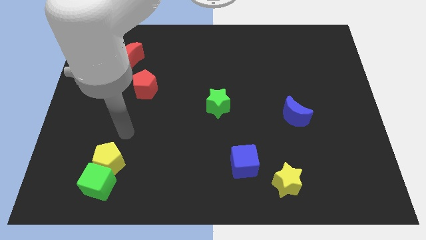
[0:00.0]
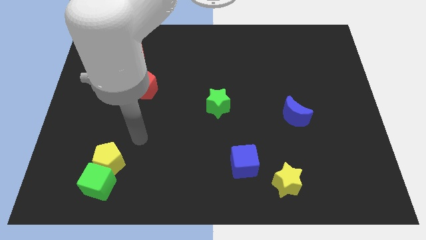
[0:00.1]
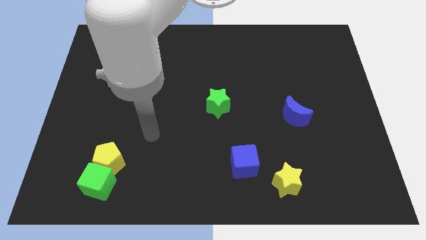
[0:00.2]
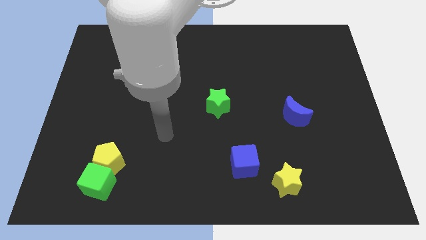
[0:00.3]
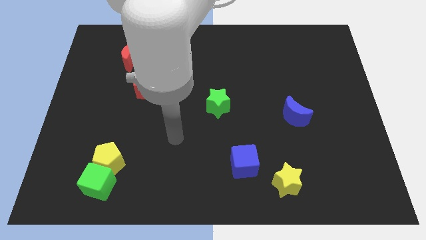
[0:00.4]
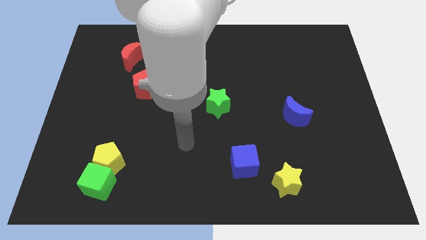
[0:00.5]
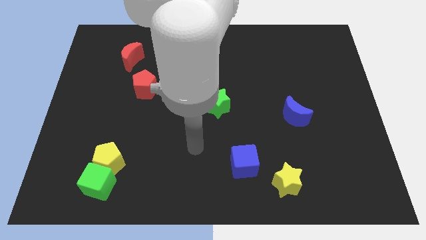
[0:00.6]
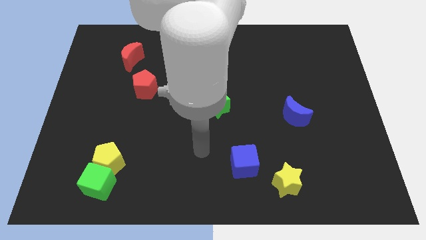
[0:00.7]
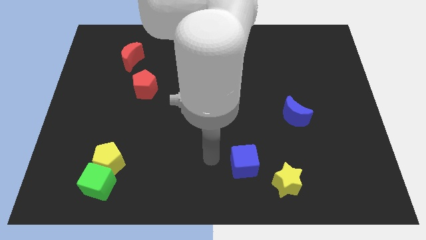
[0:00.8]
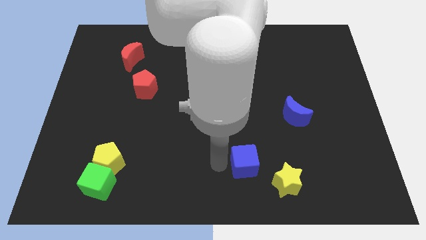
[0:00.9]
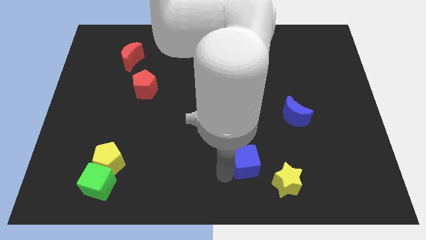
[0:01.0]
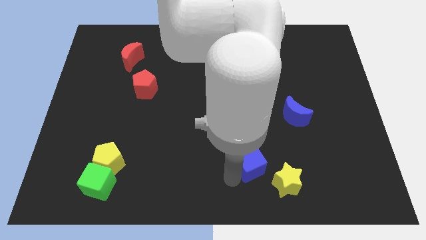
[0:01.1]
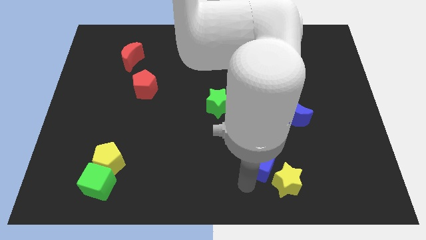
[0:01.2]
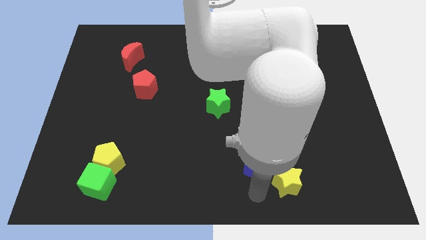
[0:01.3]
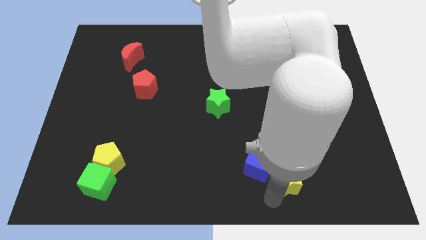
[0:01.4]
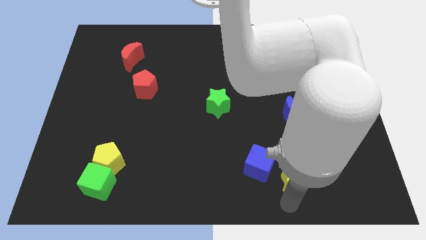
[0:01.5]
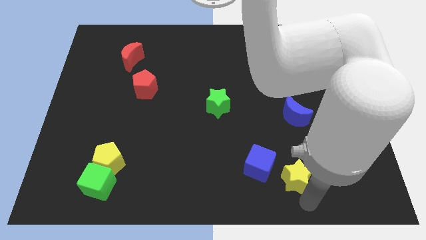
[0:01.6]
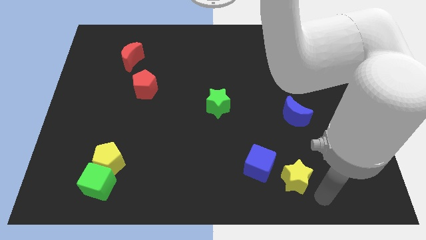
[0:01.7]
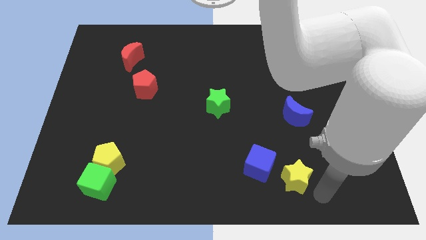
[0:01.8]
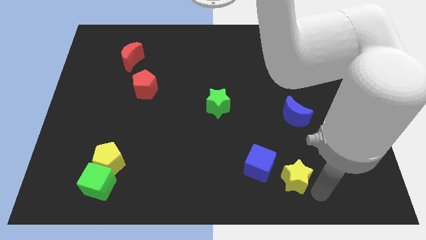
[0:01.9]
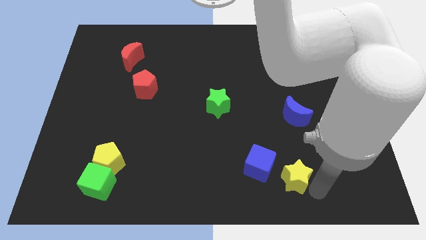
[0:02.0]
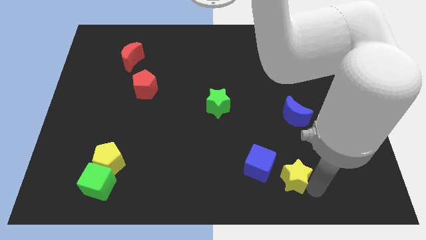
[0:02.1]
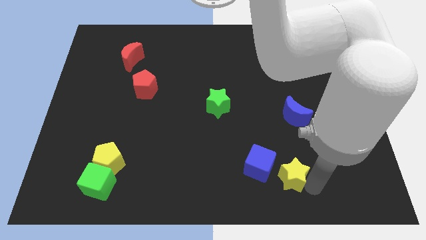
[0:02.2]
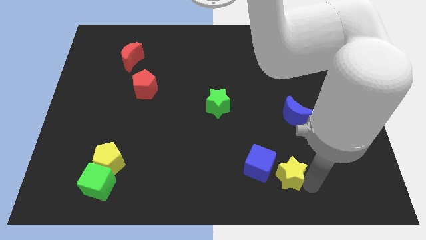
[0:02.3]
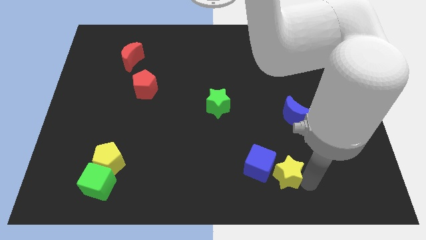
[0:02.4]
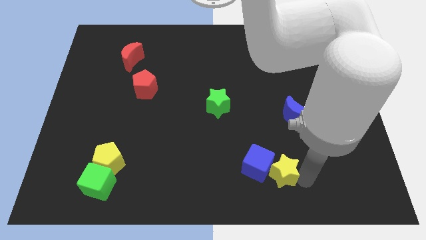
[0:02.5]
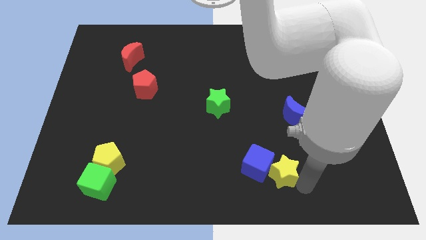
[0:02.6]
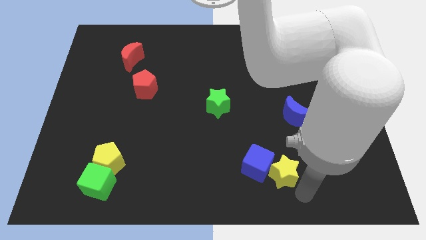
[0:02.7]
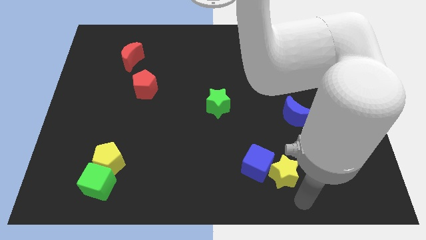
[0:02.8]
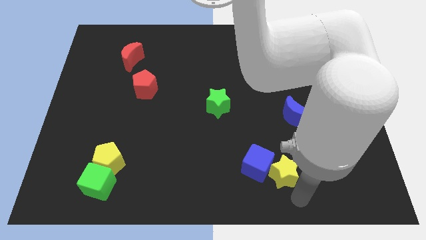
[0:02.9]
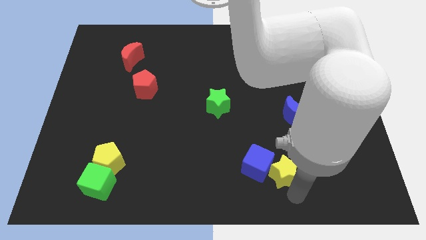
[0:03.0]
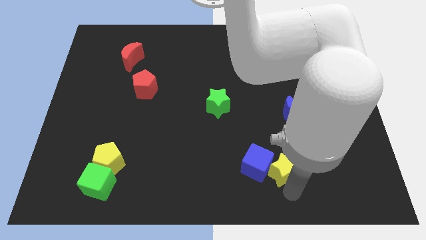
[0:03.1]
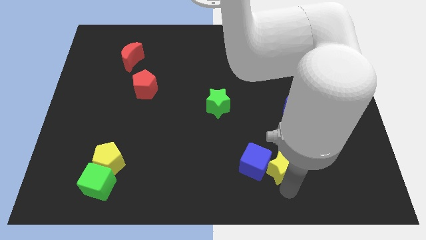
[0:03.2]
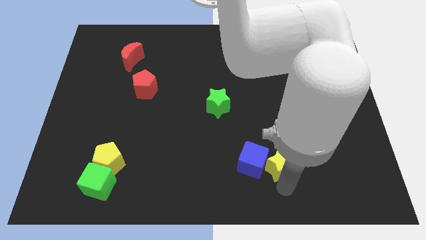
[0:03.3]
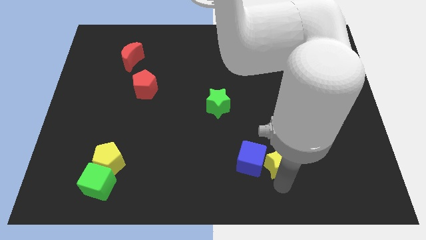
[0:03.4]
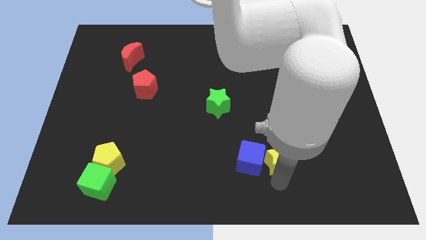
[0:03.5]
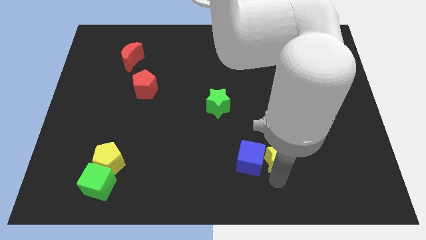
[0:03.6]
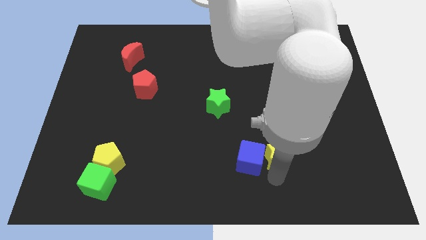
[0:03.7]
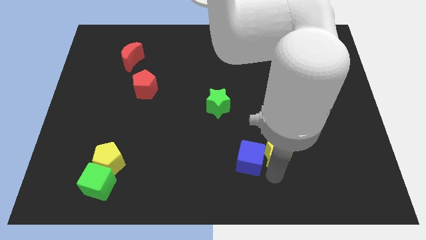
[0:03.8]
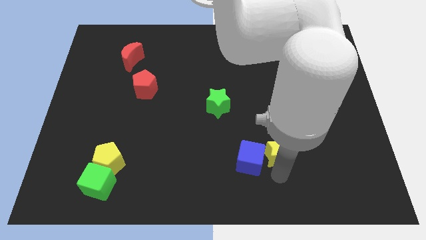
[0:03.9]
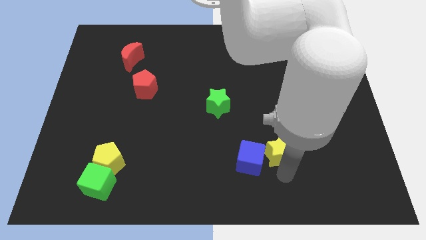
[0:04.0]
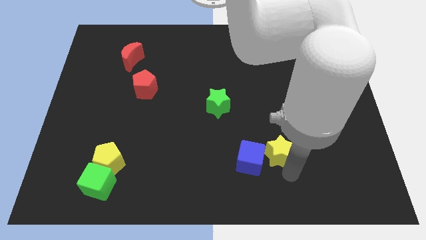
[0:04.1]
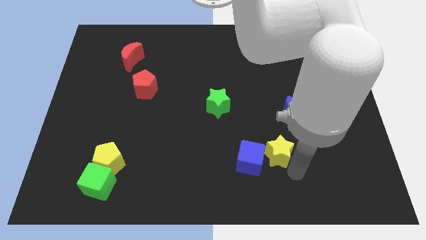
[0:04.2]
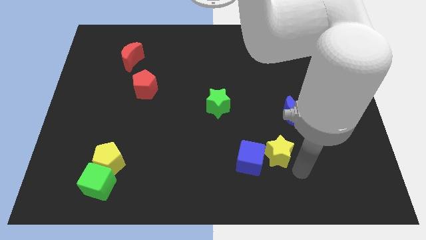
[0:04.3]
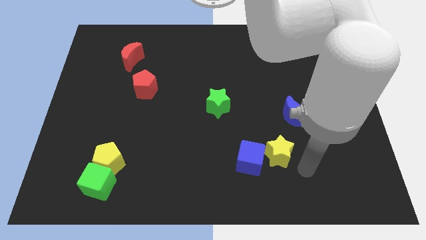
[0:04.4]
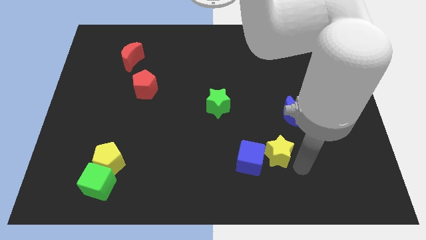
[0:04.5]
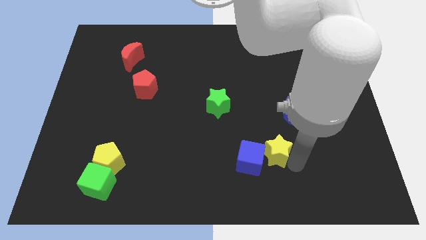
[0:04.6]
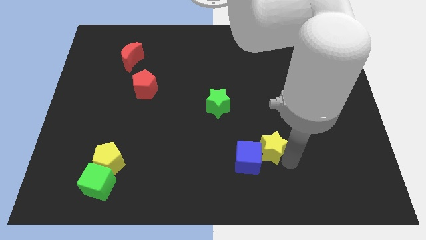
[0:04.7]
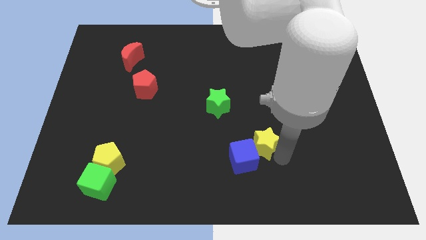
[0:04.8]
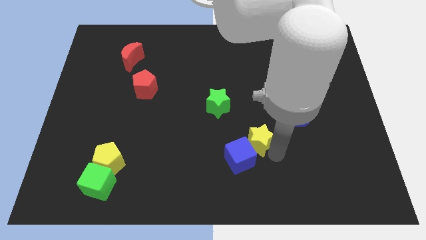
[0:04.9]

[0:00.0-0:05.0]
push the yellow star to the top side of the blue cube

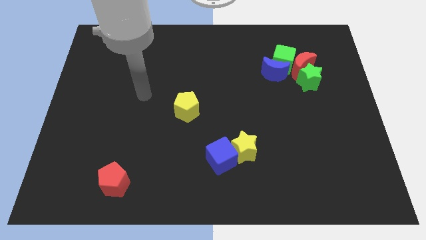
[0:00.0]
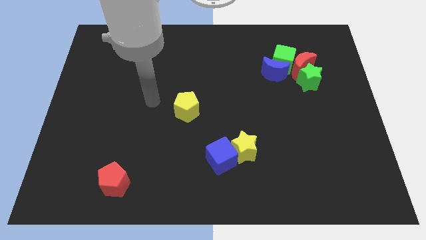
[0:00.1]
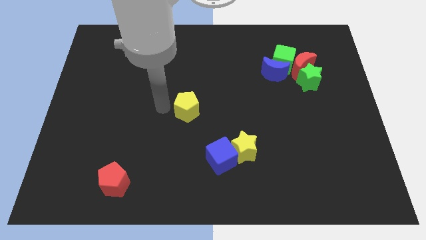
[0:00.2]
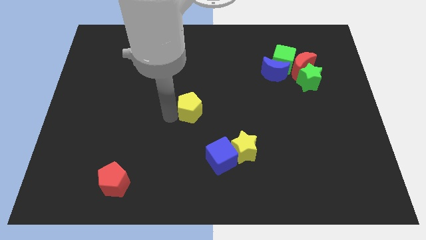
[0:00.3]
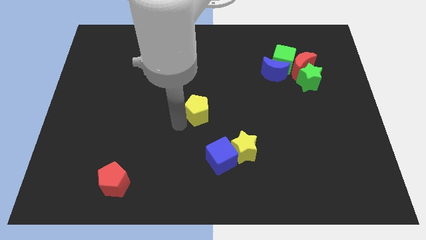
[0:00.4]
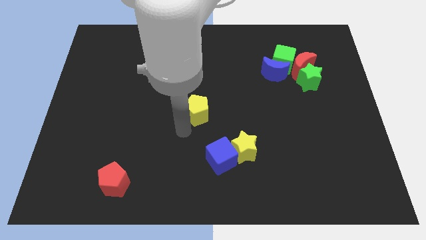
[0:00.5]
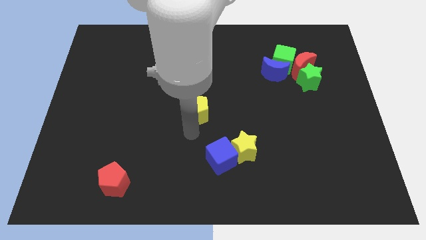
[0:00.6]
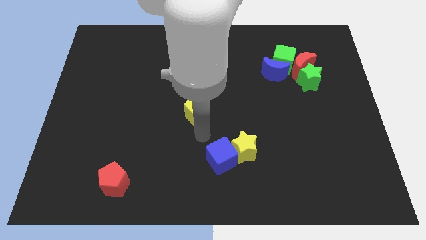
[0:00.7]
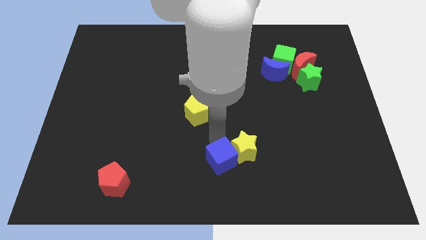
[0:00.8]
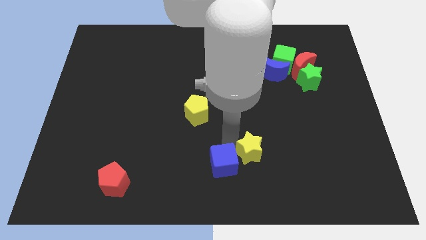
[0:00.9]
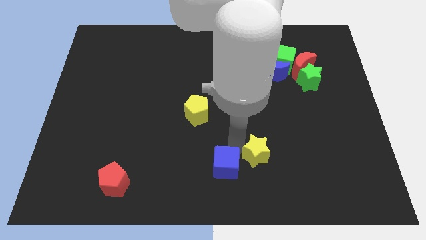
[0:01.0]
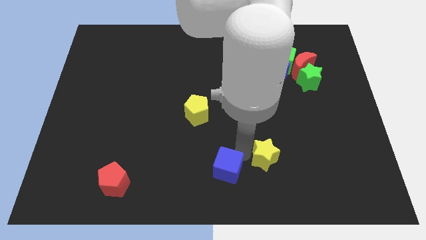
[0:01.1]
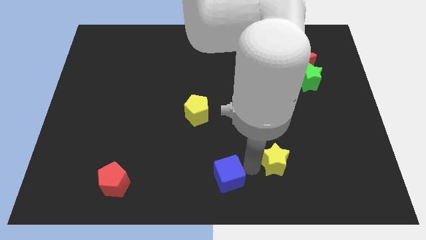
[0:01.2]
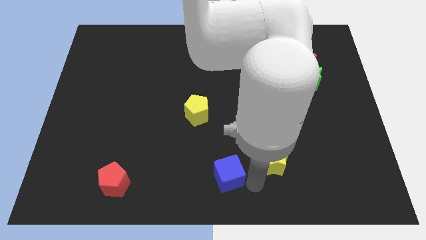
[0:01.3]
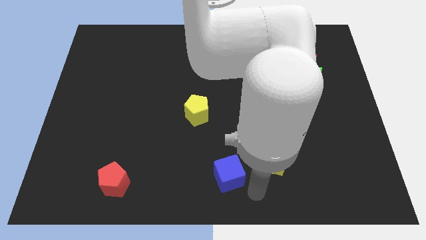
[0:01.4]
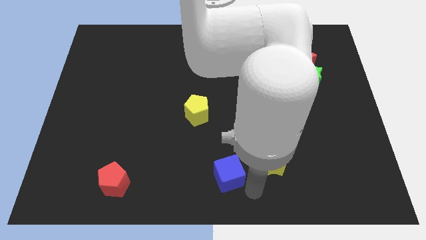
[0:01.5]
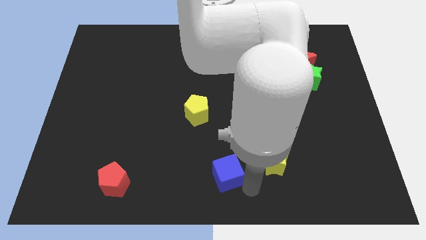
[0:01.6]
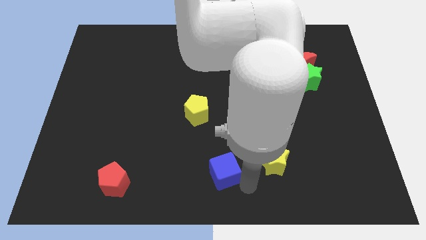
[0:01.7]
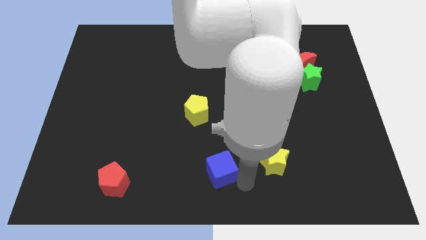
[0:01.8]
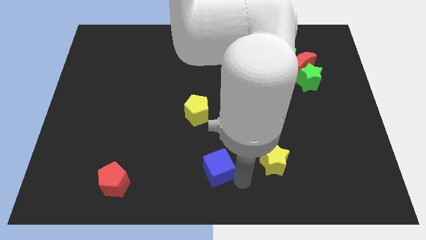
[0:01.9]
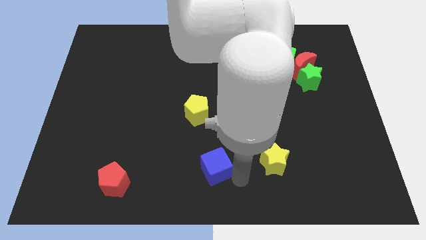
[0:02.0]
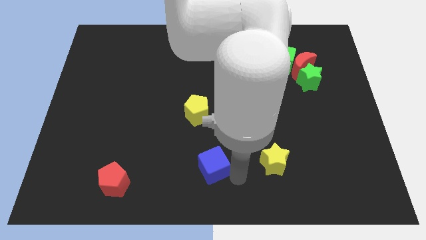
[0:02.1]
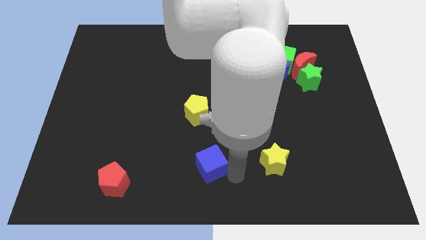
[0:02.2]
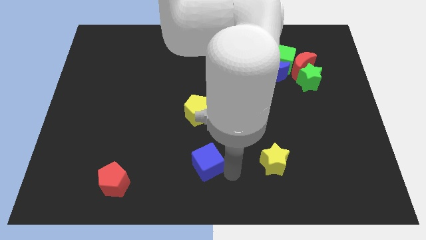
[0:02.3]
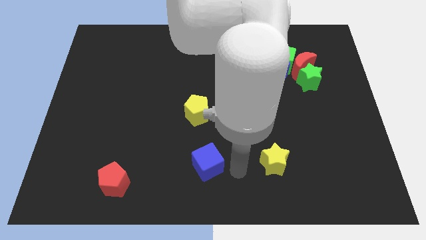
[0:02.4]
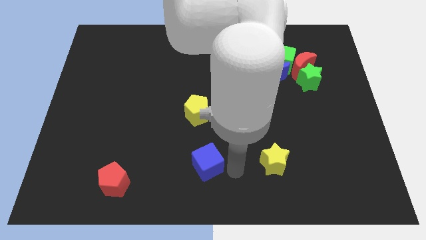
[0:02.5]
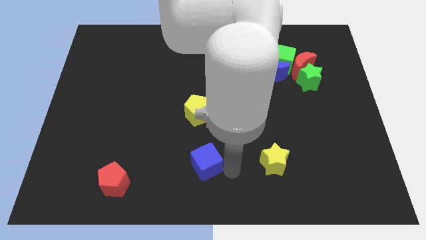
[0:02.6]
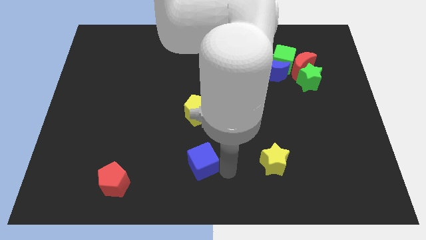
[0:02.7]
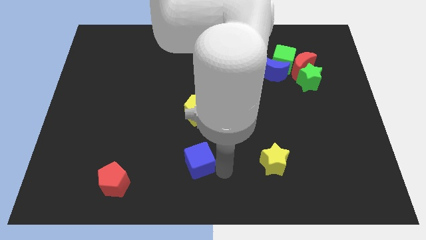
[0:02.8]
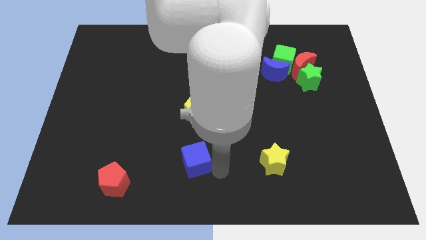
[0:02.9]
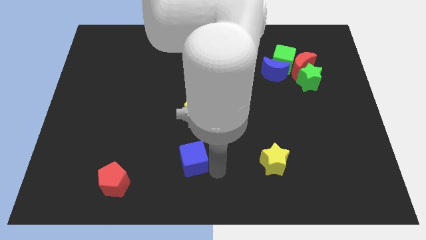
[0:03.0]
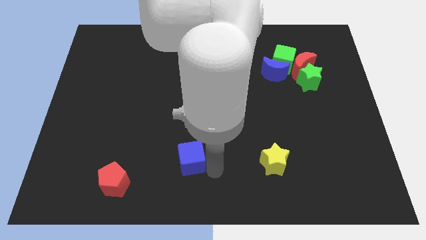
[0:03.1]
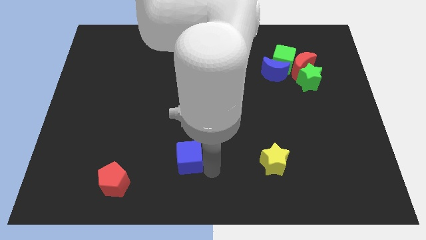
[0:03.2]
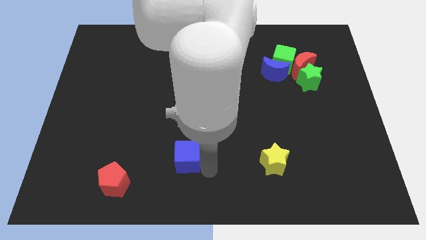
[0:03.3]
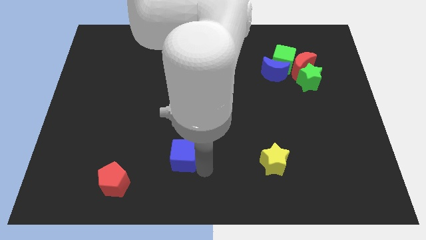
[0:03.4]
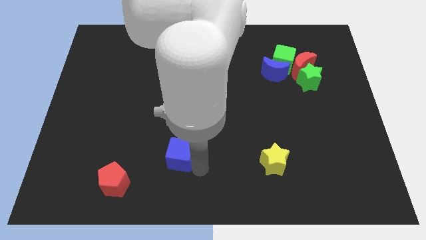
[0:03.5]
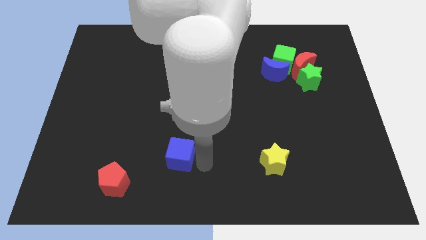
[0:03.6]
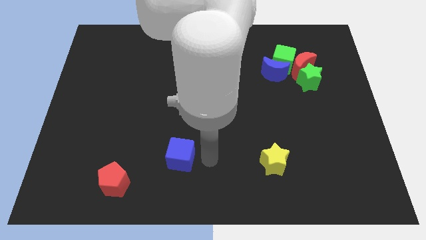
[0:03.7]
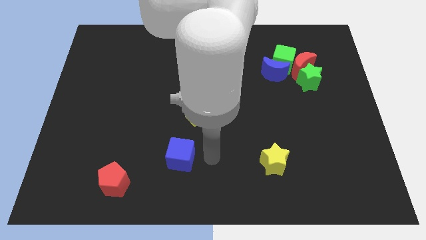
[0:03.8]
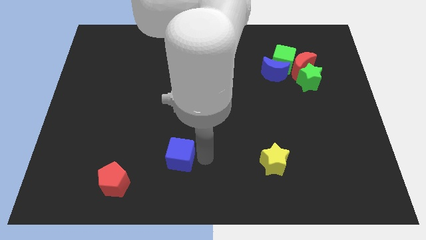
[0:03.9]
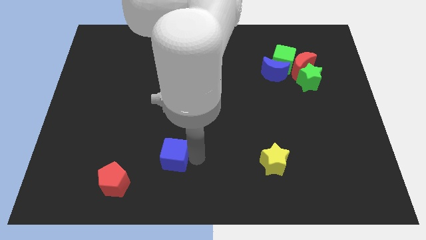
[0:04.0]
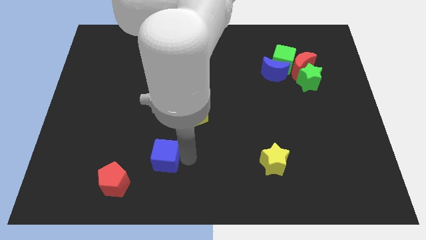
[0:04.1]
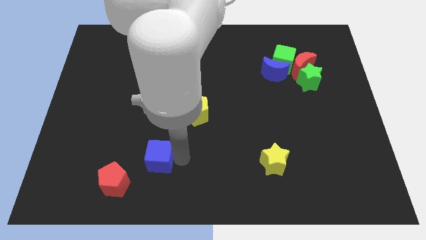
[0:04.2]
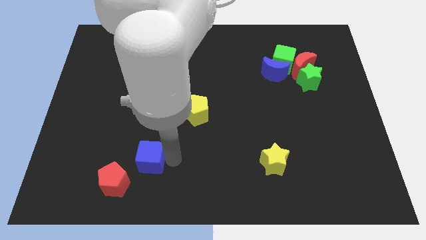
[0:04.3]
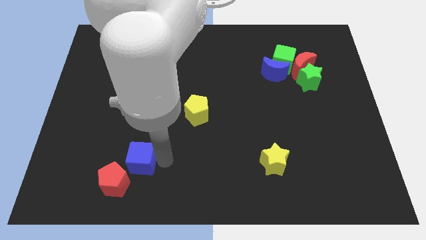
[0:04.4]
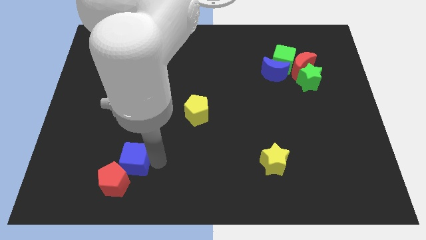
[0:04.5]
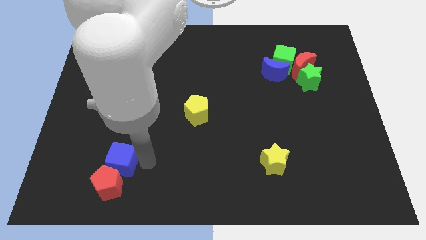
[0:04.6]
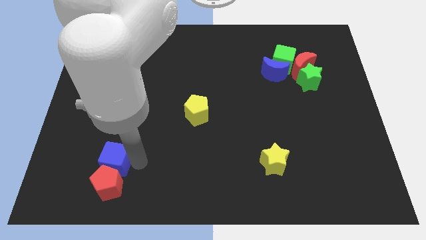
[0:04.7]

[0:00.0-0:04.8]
move the blue cube diagonally up and to the left of the red pentagon
